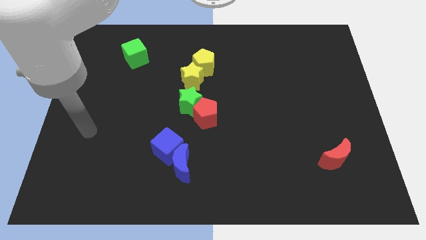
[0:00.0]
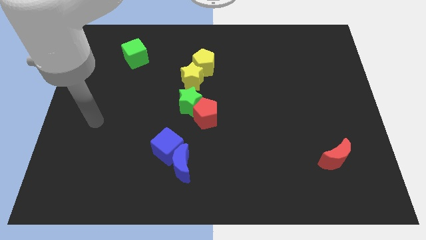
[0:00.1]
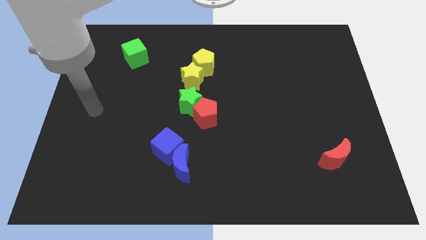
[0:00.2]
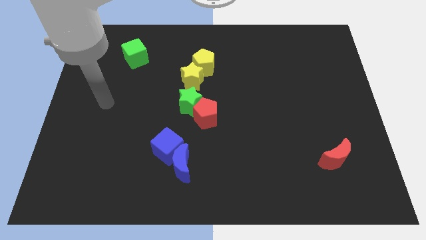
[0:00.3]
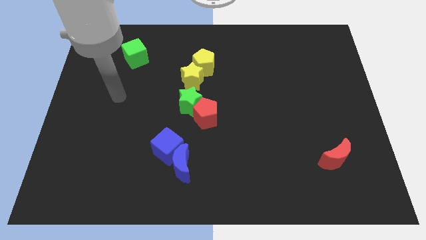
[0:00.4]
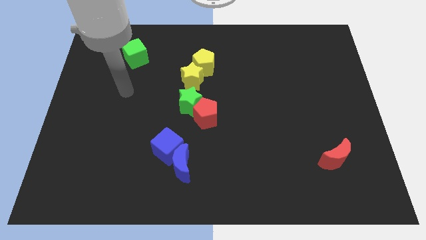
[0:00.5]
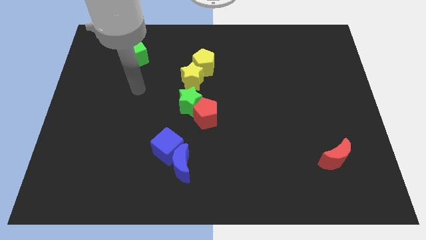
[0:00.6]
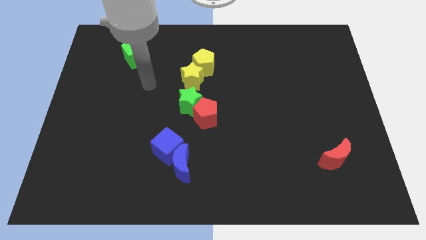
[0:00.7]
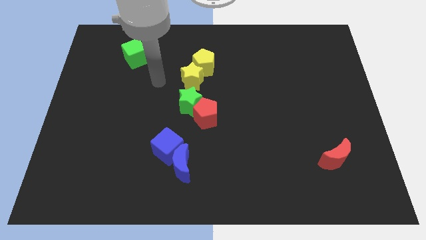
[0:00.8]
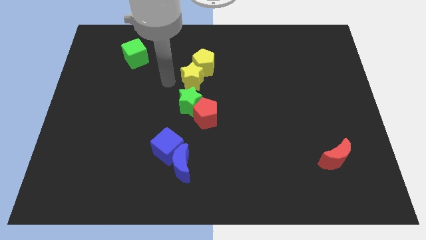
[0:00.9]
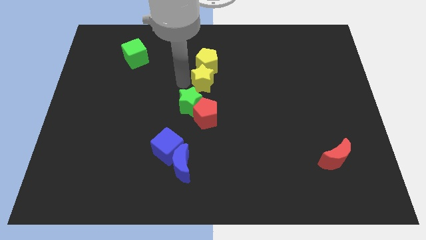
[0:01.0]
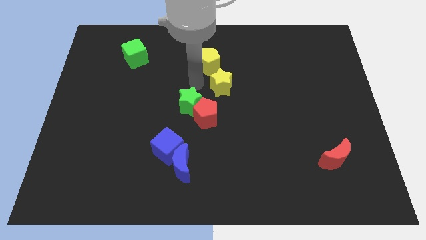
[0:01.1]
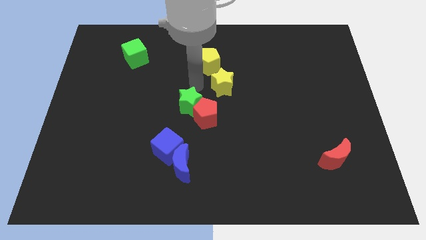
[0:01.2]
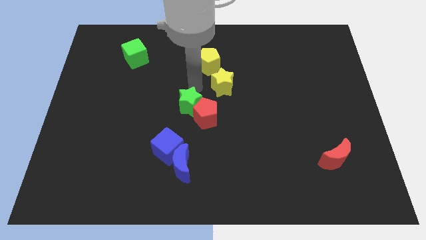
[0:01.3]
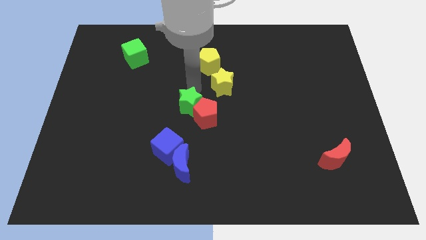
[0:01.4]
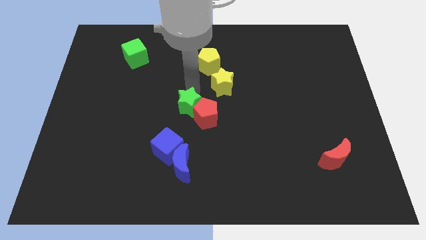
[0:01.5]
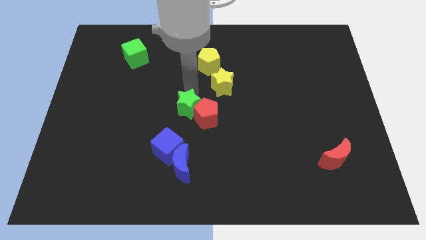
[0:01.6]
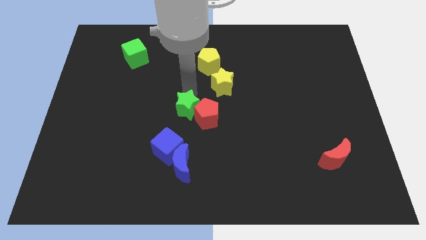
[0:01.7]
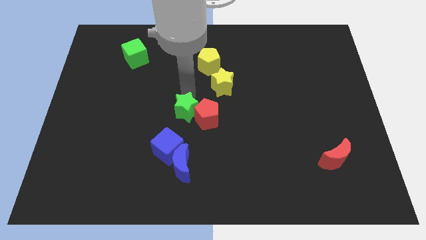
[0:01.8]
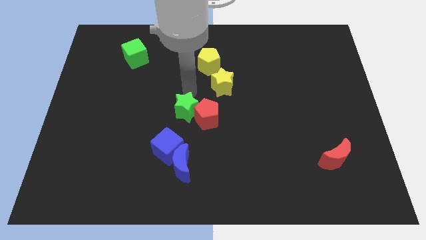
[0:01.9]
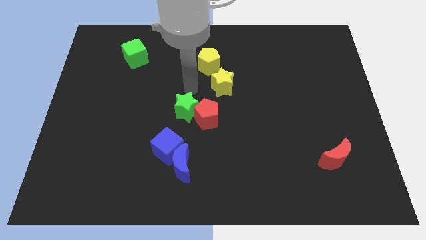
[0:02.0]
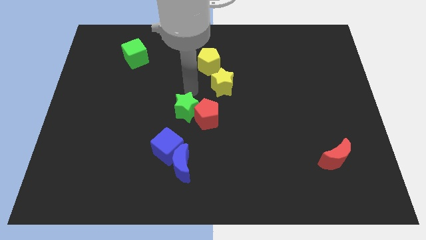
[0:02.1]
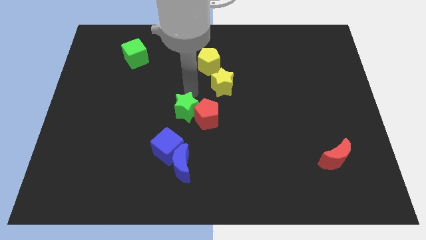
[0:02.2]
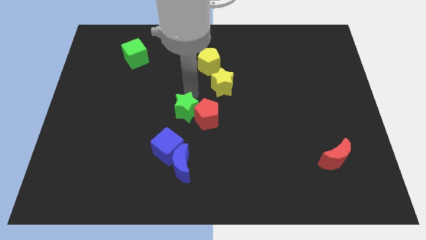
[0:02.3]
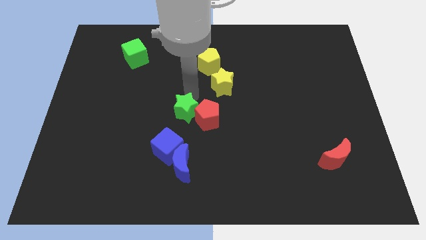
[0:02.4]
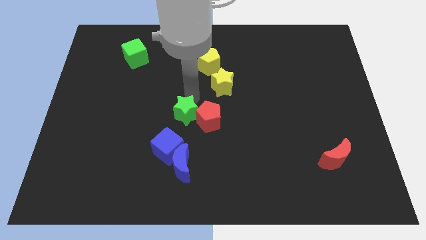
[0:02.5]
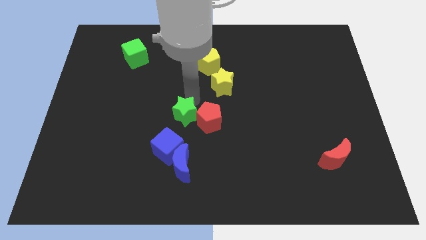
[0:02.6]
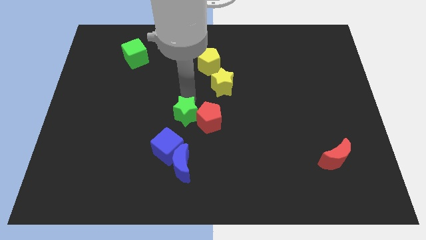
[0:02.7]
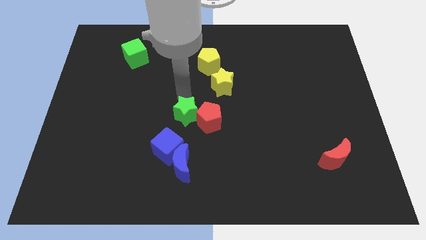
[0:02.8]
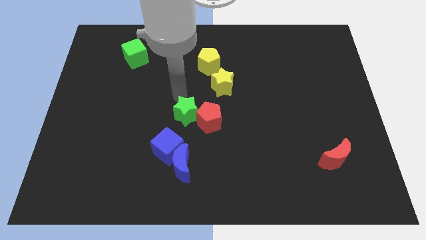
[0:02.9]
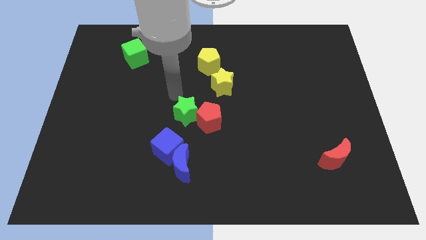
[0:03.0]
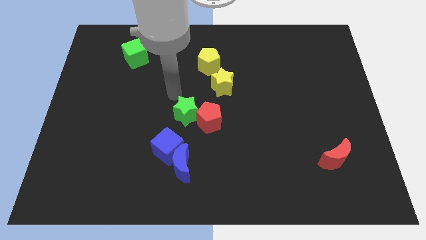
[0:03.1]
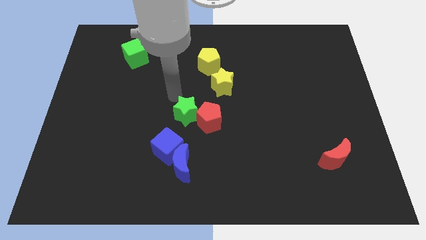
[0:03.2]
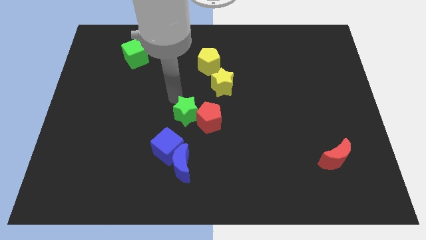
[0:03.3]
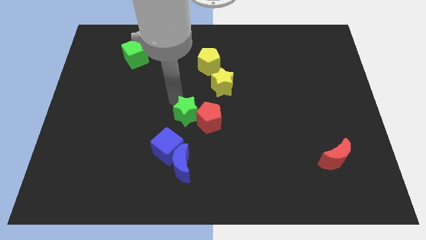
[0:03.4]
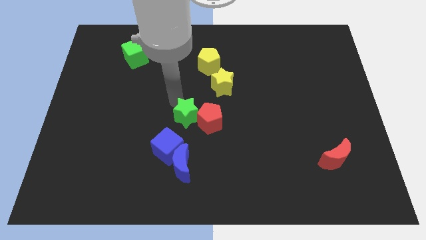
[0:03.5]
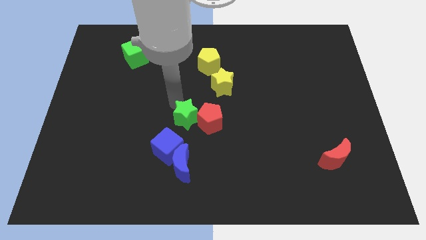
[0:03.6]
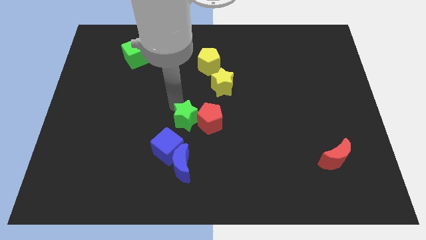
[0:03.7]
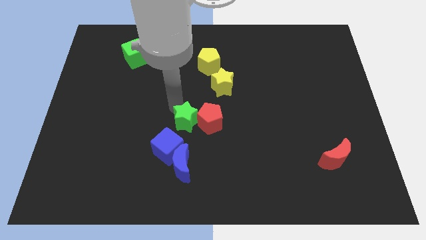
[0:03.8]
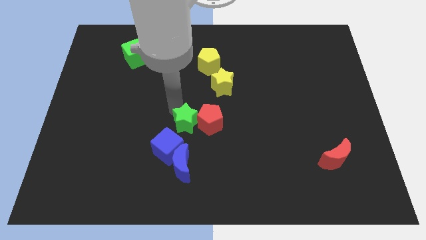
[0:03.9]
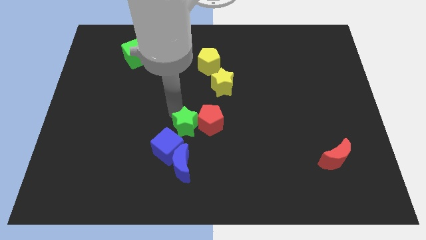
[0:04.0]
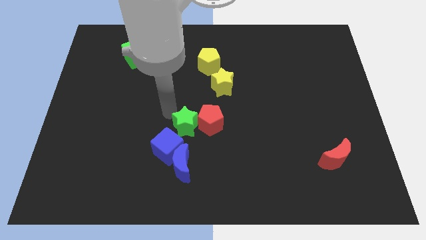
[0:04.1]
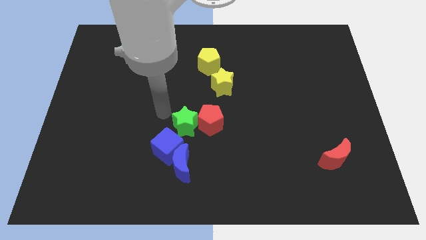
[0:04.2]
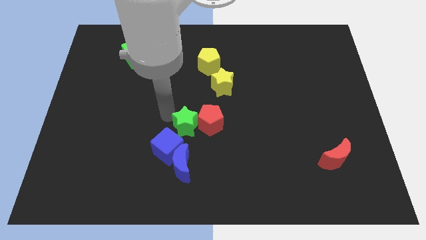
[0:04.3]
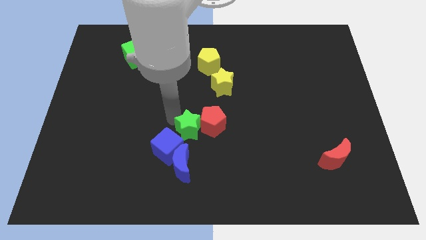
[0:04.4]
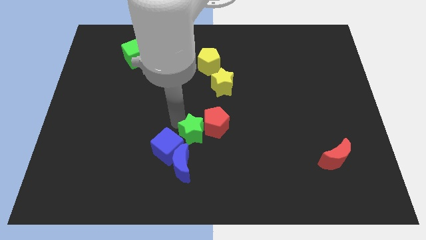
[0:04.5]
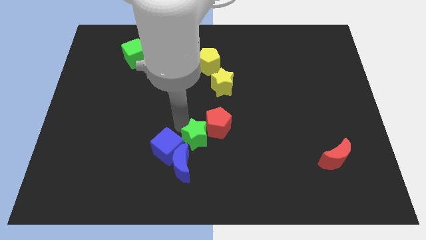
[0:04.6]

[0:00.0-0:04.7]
slide the green star a bit down and right

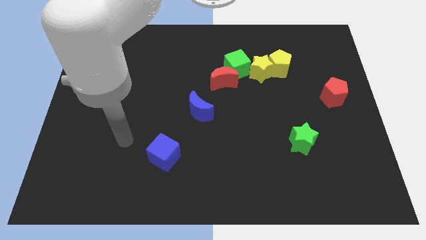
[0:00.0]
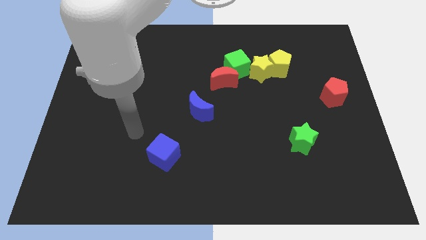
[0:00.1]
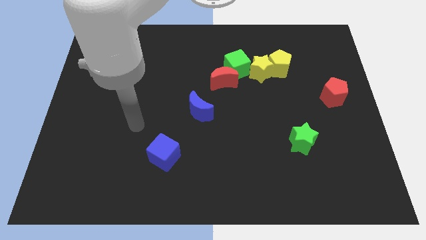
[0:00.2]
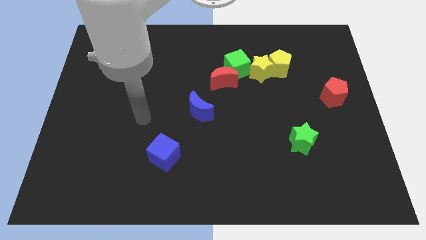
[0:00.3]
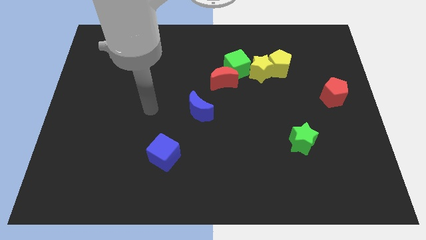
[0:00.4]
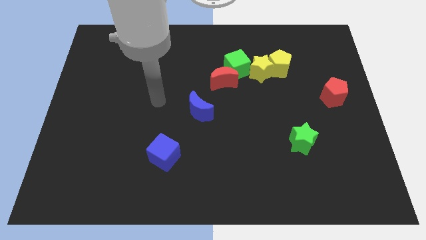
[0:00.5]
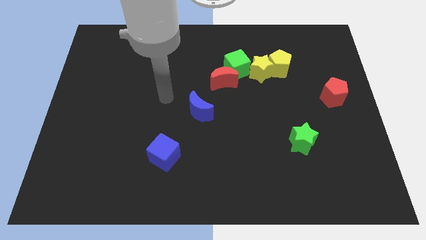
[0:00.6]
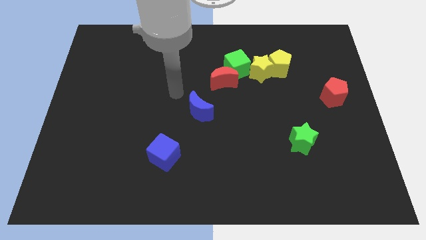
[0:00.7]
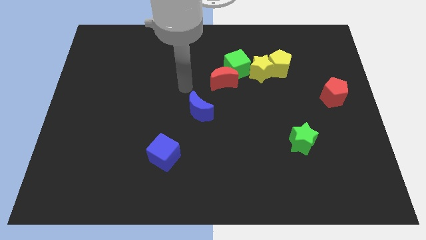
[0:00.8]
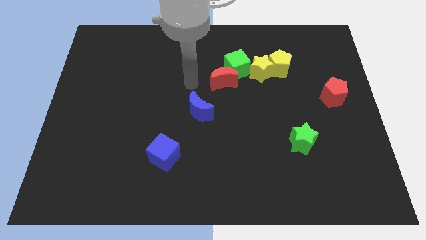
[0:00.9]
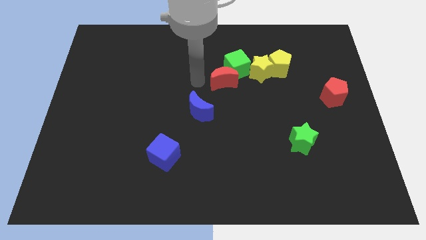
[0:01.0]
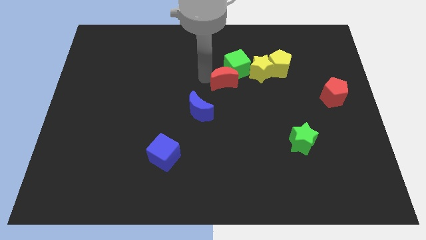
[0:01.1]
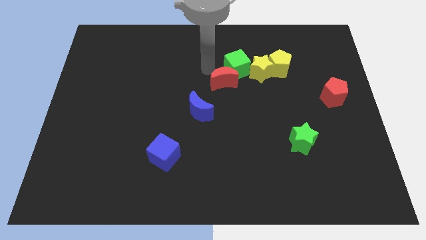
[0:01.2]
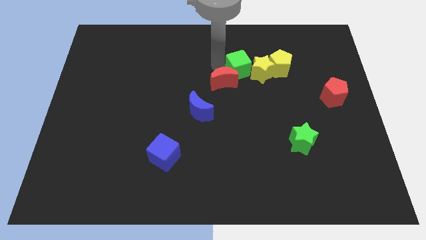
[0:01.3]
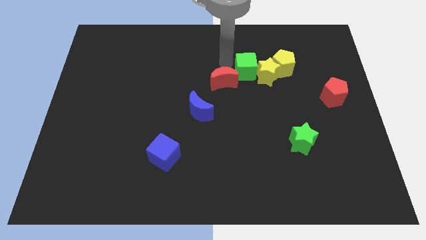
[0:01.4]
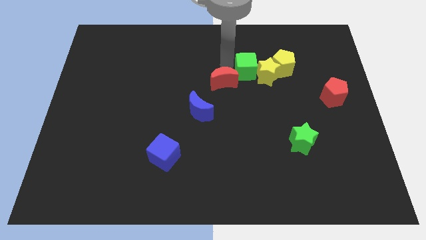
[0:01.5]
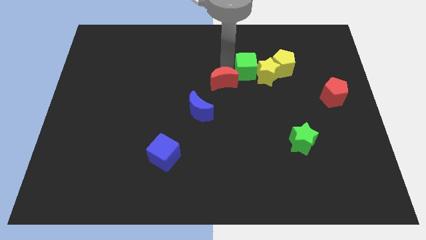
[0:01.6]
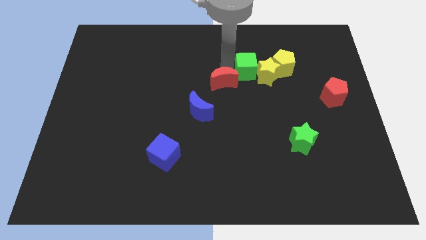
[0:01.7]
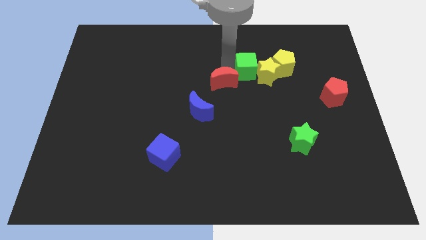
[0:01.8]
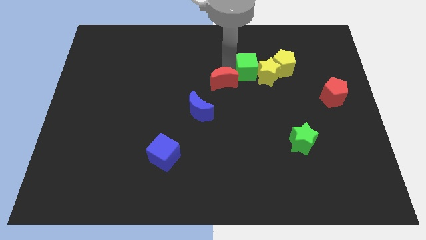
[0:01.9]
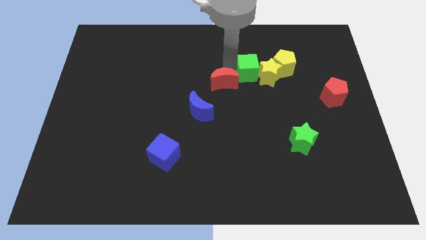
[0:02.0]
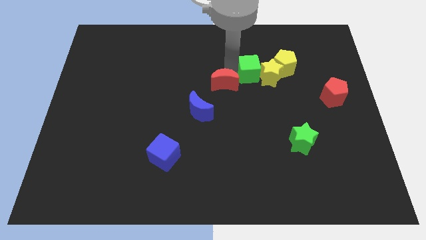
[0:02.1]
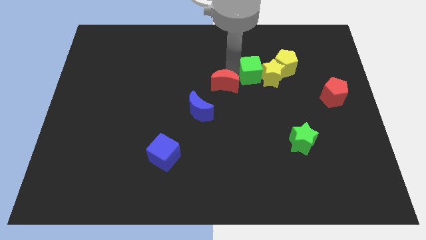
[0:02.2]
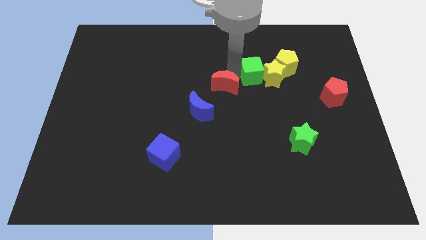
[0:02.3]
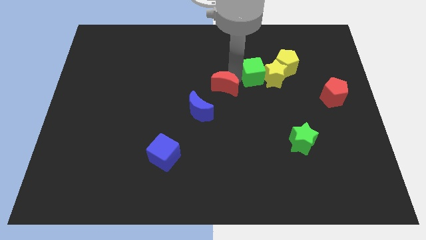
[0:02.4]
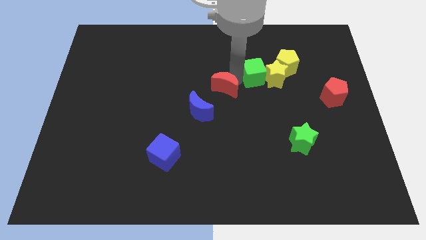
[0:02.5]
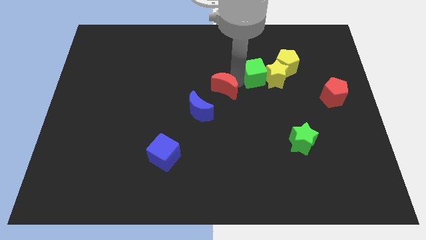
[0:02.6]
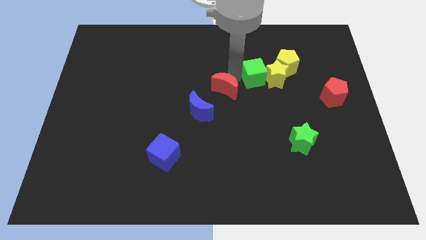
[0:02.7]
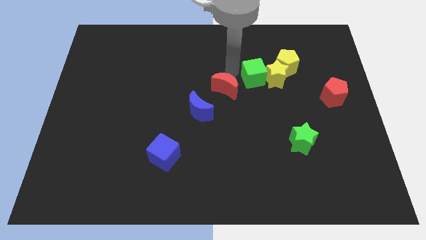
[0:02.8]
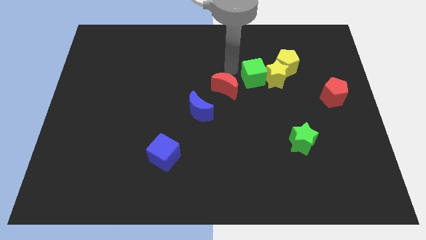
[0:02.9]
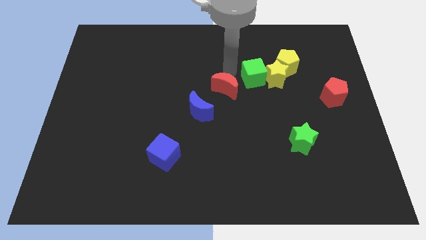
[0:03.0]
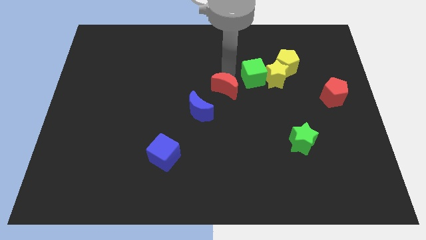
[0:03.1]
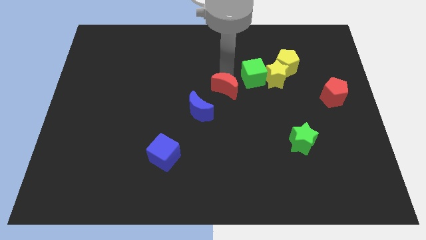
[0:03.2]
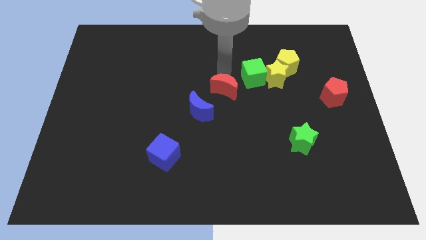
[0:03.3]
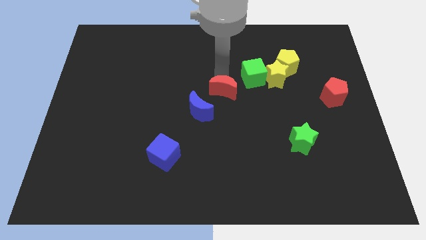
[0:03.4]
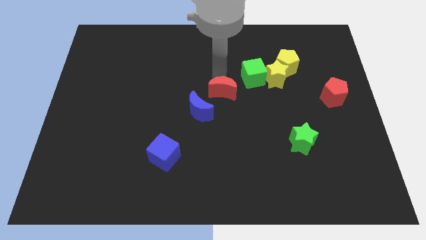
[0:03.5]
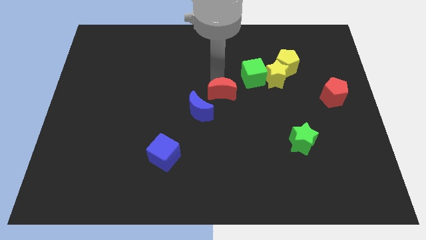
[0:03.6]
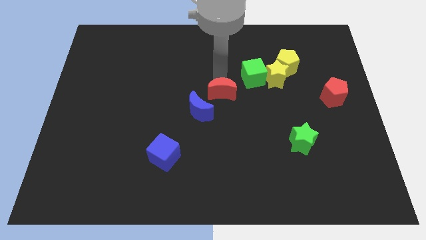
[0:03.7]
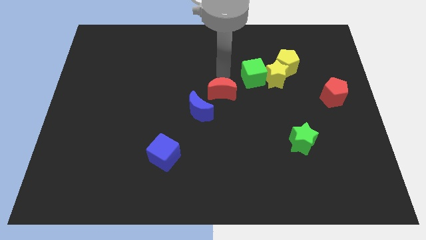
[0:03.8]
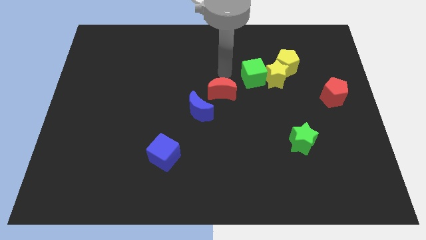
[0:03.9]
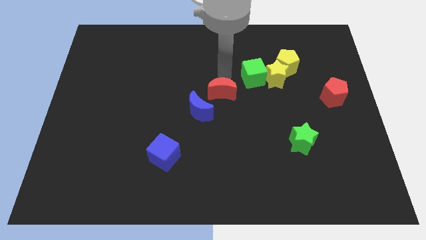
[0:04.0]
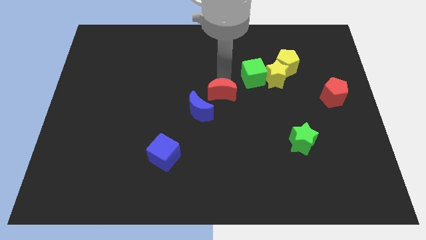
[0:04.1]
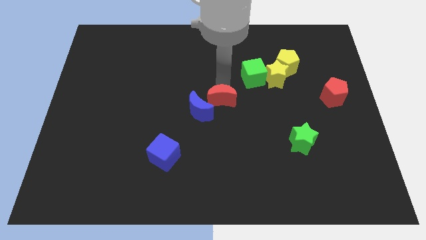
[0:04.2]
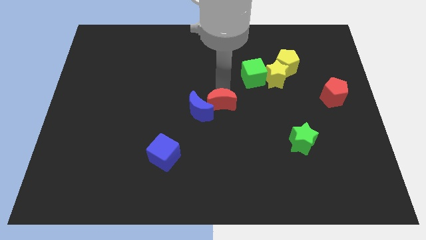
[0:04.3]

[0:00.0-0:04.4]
slide the red moon downwards slightly
